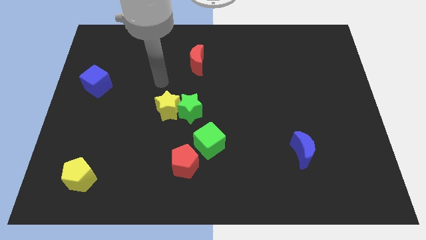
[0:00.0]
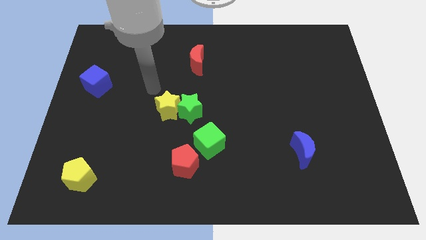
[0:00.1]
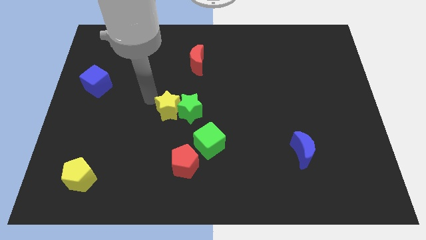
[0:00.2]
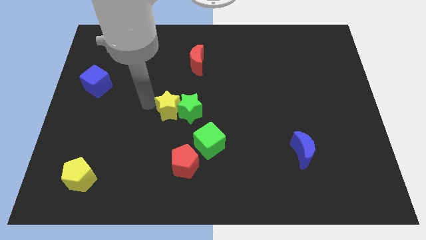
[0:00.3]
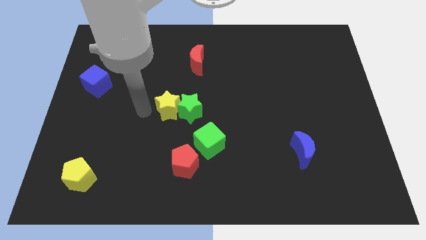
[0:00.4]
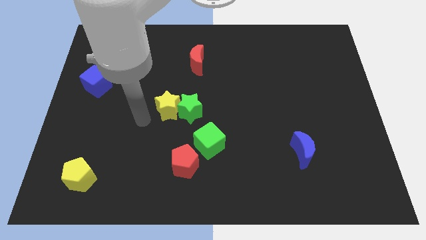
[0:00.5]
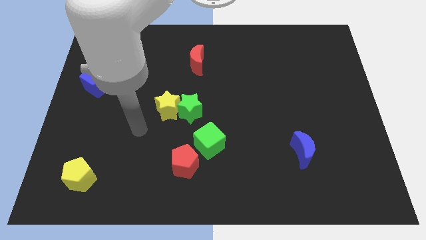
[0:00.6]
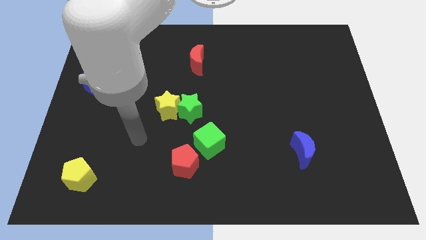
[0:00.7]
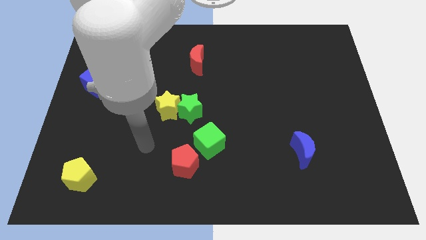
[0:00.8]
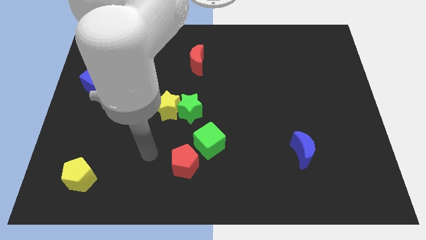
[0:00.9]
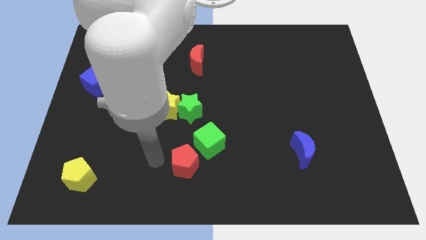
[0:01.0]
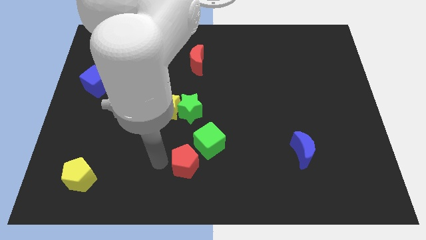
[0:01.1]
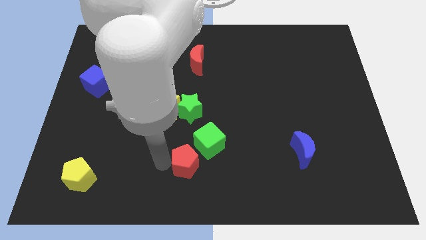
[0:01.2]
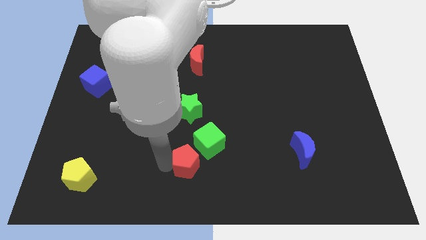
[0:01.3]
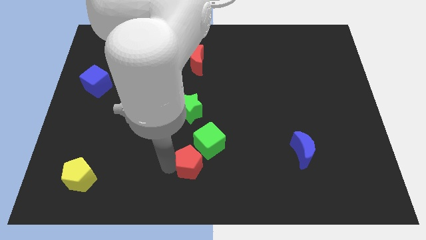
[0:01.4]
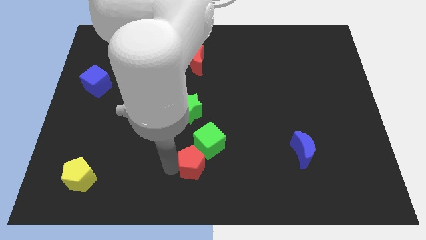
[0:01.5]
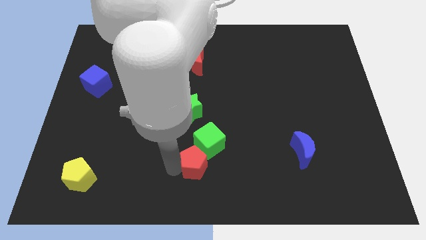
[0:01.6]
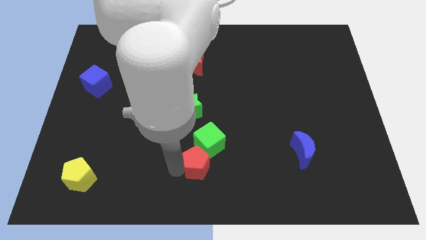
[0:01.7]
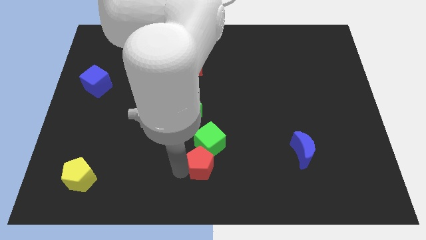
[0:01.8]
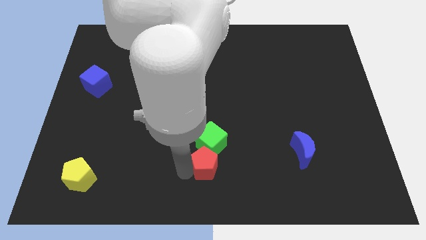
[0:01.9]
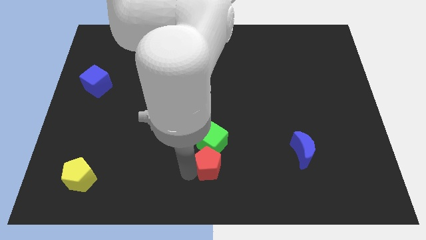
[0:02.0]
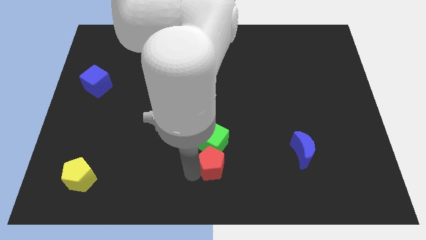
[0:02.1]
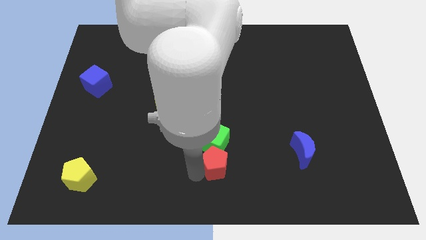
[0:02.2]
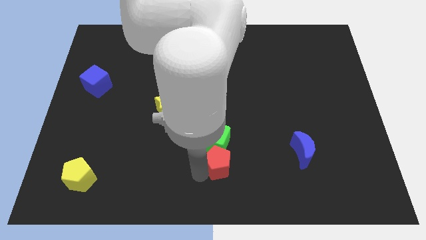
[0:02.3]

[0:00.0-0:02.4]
slightly slide the red pentagon to the right

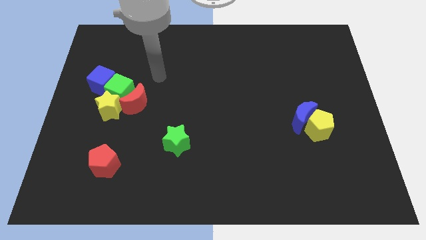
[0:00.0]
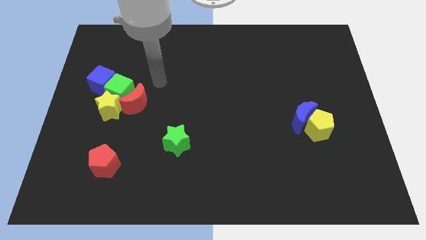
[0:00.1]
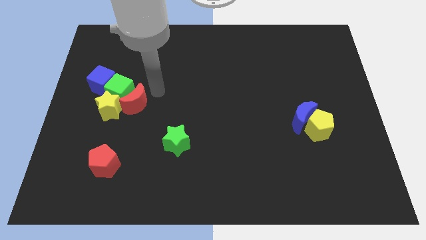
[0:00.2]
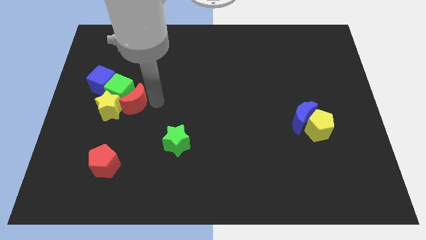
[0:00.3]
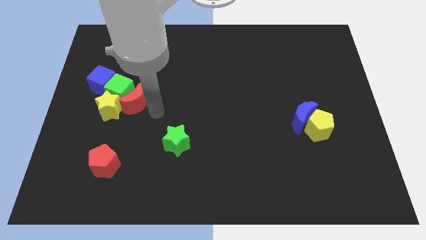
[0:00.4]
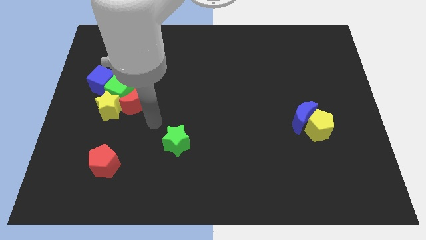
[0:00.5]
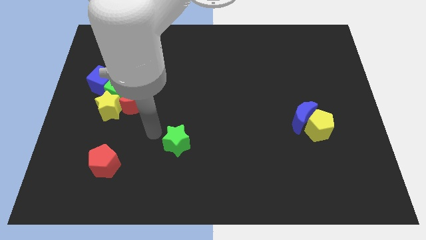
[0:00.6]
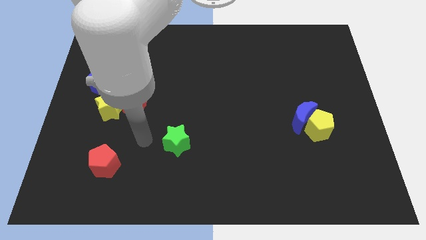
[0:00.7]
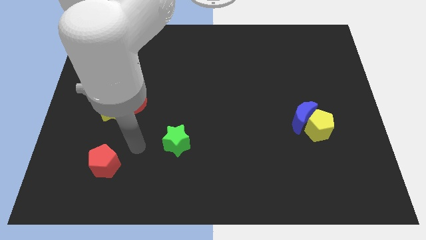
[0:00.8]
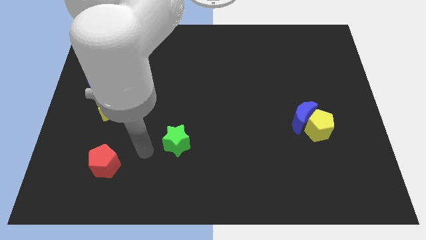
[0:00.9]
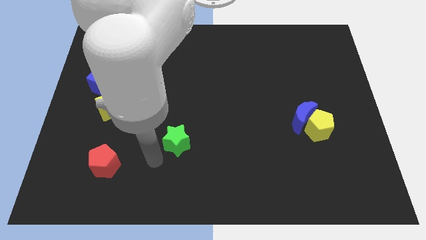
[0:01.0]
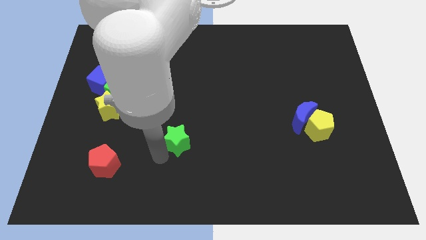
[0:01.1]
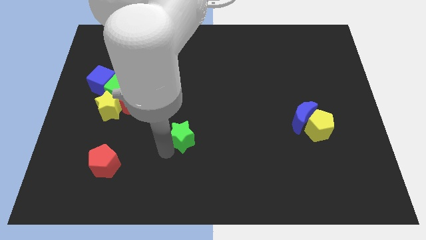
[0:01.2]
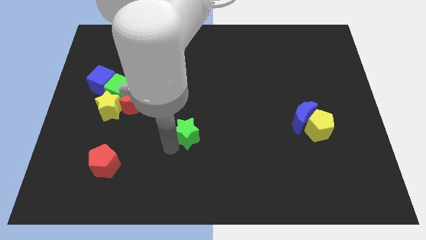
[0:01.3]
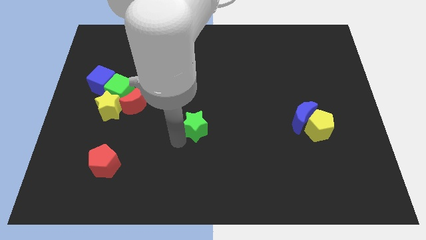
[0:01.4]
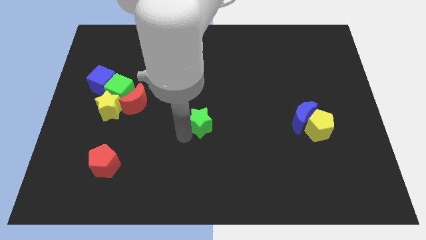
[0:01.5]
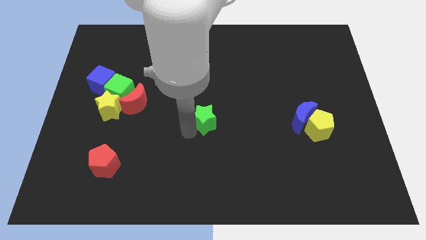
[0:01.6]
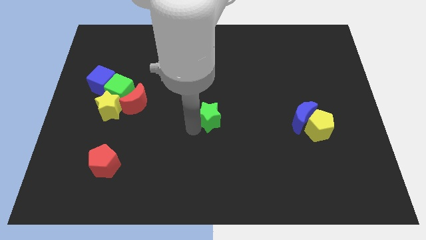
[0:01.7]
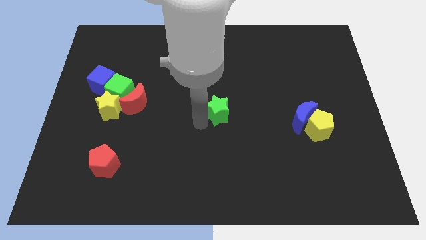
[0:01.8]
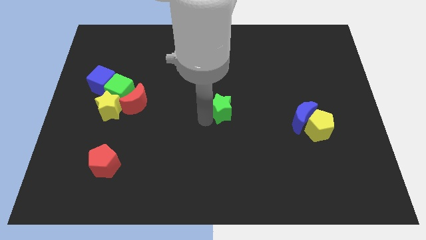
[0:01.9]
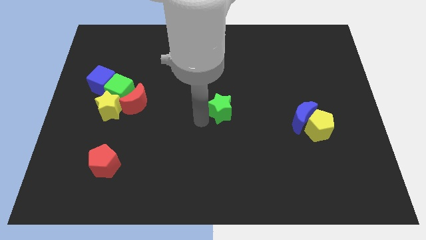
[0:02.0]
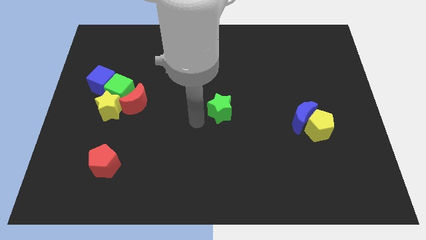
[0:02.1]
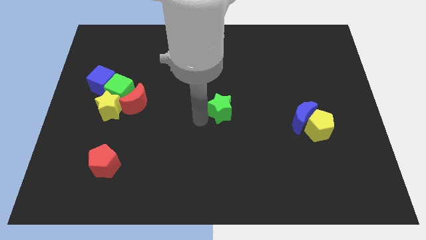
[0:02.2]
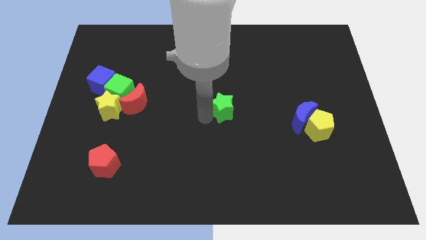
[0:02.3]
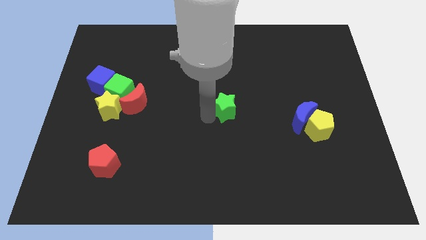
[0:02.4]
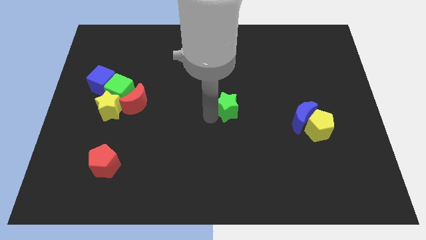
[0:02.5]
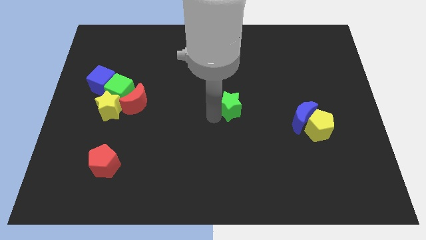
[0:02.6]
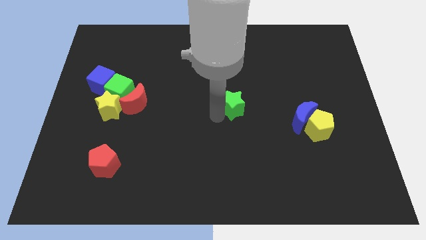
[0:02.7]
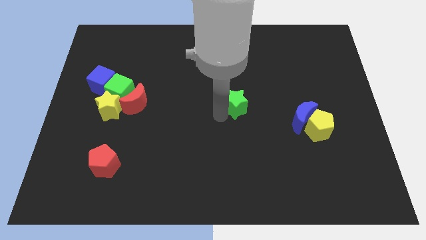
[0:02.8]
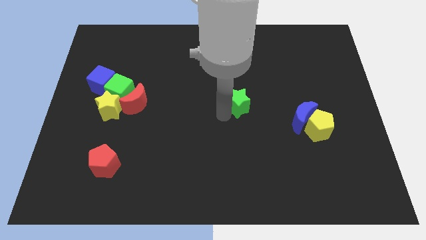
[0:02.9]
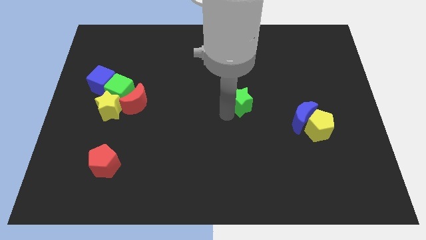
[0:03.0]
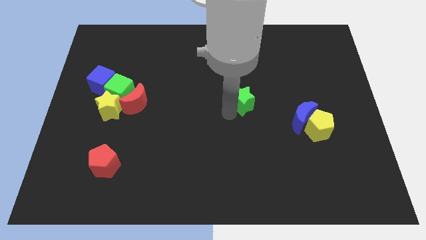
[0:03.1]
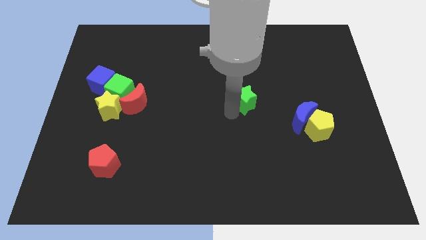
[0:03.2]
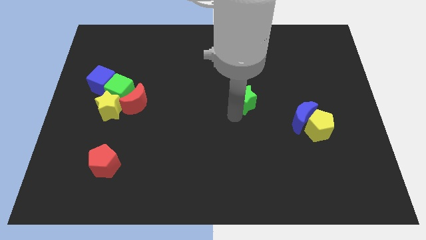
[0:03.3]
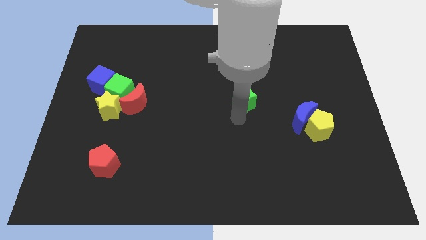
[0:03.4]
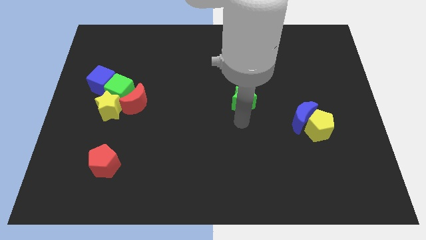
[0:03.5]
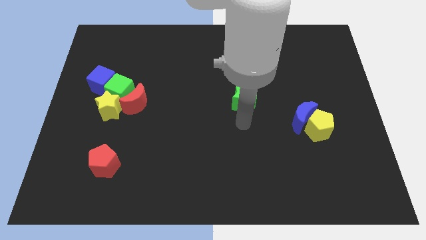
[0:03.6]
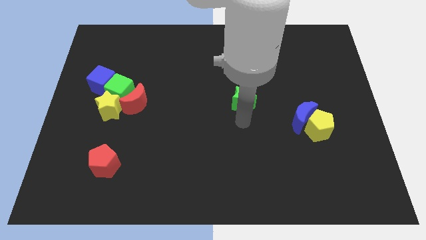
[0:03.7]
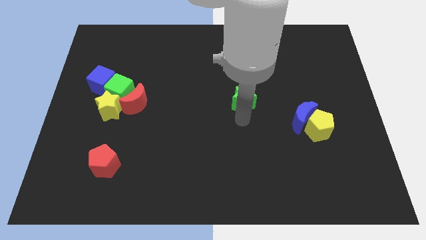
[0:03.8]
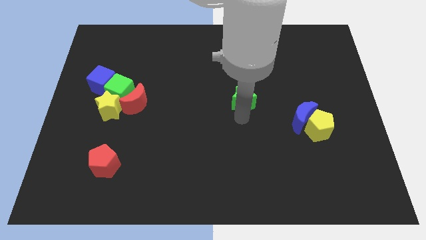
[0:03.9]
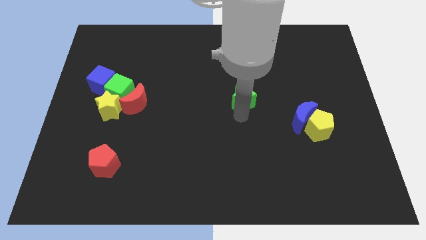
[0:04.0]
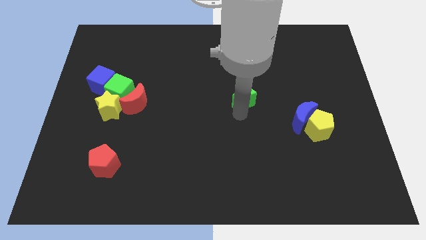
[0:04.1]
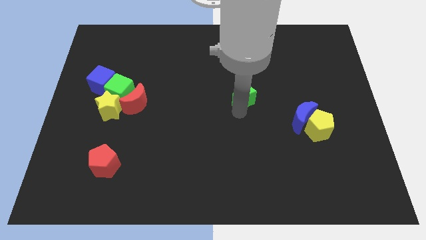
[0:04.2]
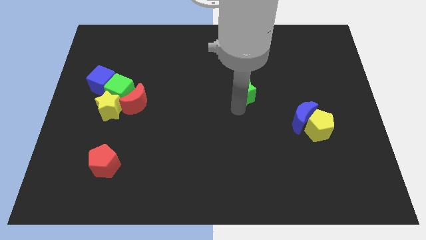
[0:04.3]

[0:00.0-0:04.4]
move the green star up and right diagonally

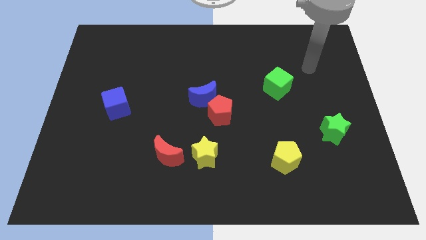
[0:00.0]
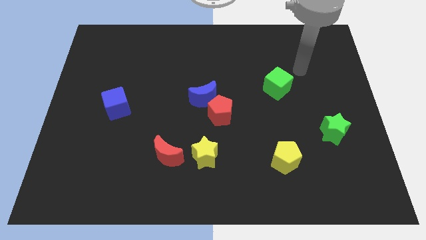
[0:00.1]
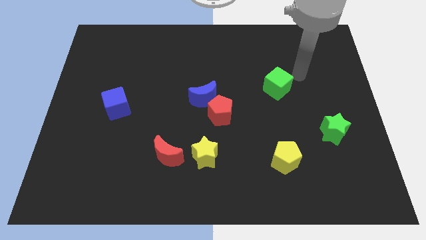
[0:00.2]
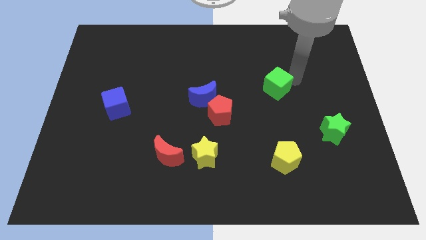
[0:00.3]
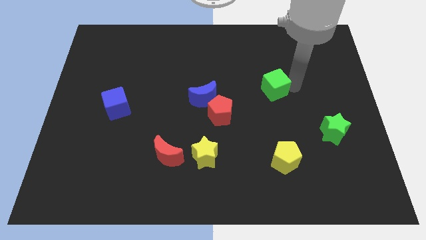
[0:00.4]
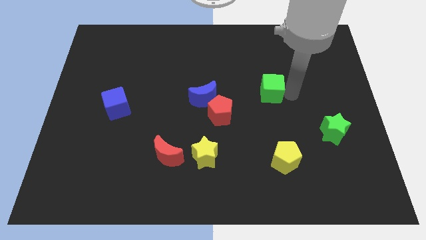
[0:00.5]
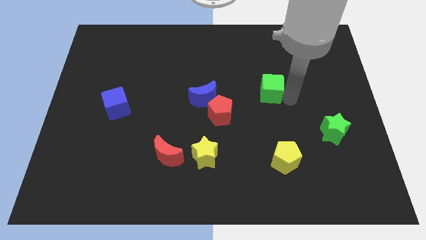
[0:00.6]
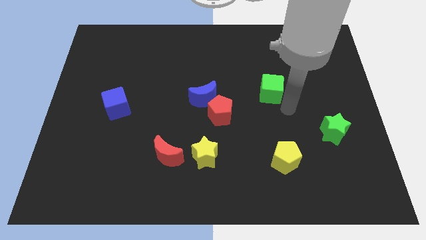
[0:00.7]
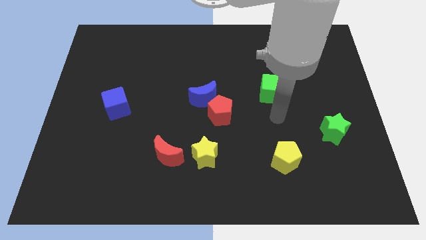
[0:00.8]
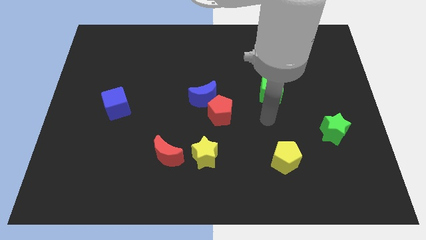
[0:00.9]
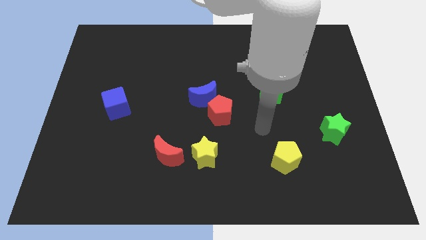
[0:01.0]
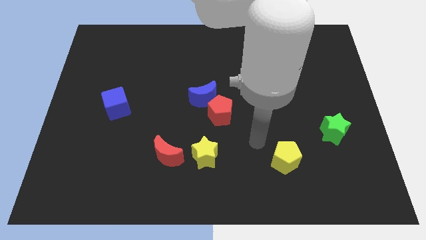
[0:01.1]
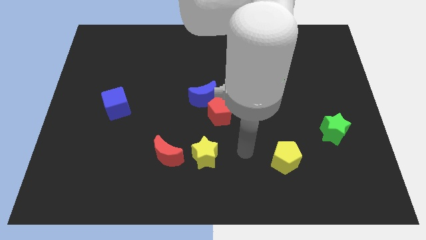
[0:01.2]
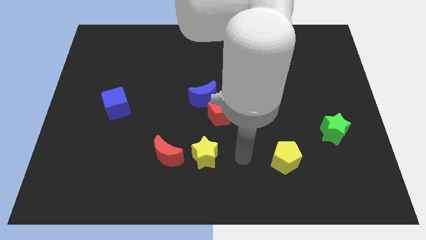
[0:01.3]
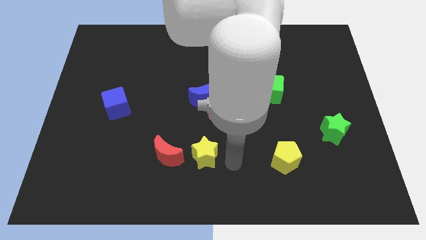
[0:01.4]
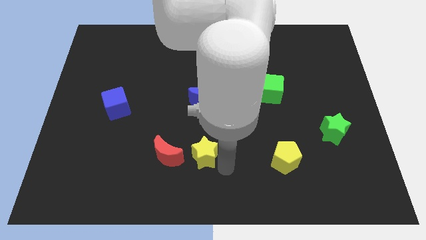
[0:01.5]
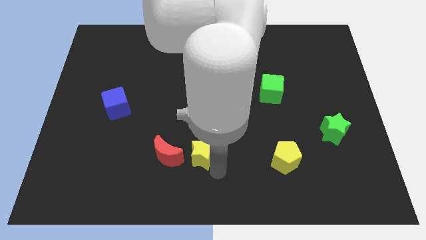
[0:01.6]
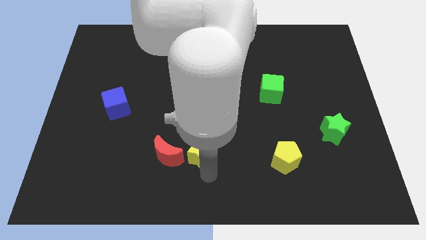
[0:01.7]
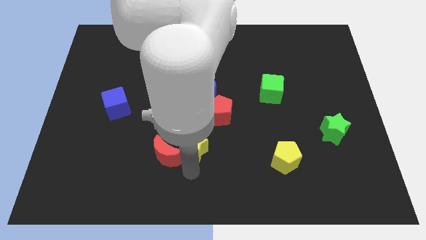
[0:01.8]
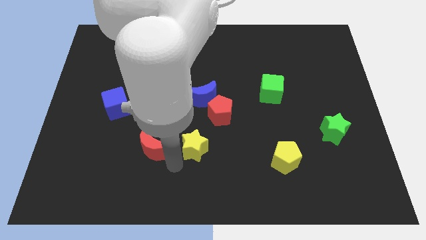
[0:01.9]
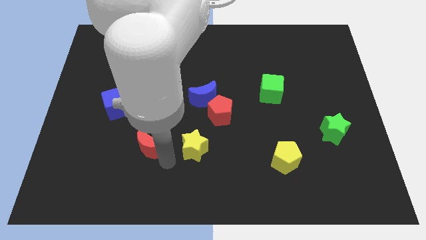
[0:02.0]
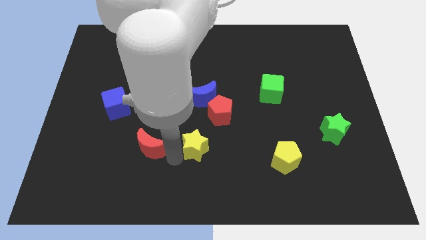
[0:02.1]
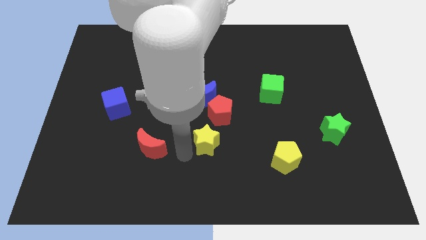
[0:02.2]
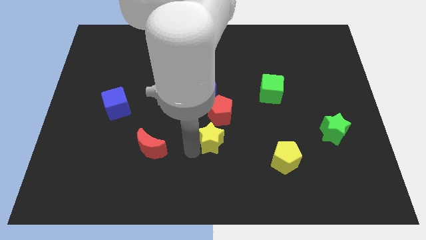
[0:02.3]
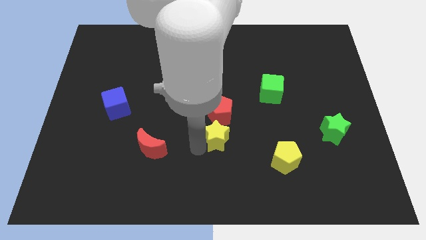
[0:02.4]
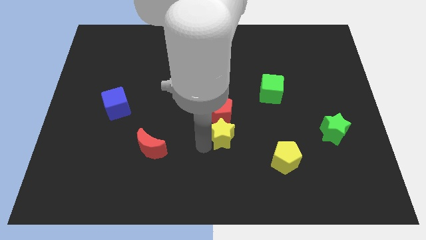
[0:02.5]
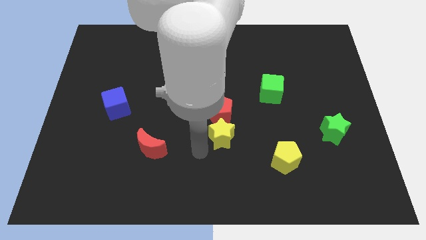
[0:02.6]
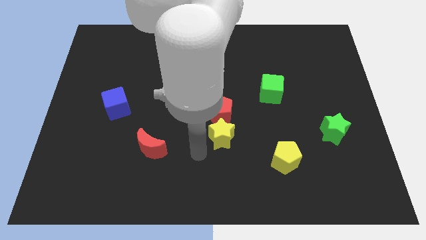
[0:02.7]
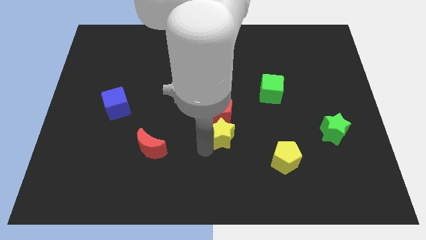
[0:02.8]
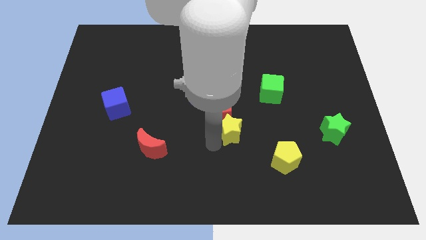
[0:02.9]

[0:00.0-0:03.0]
move the yellow star diagonally up and to the right a little bit
